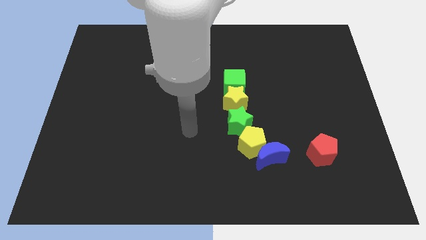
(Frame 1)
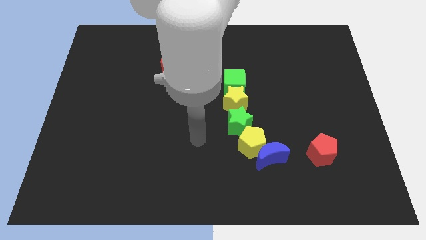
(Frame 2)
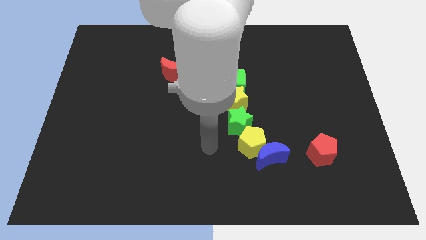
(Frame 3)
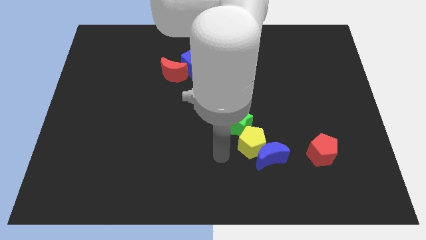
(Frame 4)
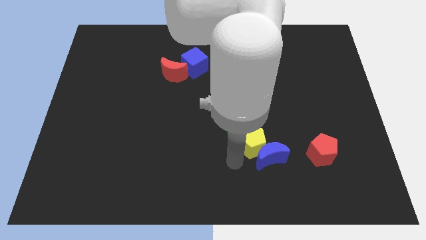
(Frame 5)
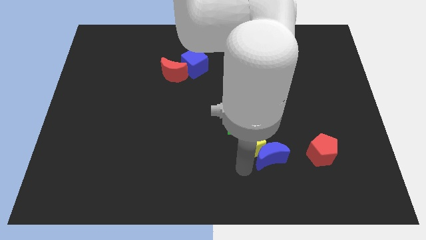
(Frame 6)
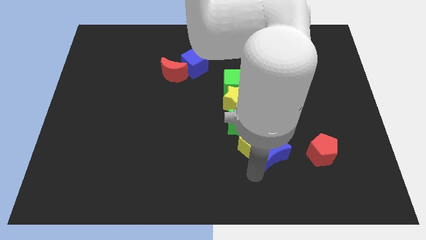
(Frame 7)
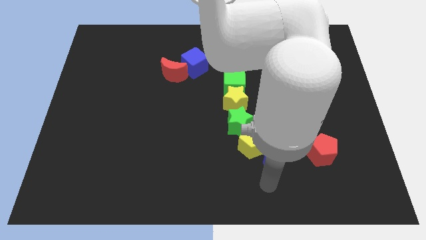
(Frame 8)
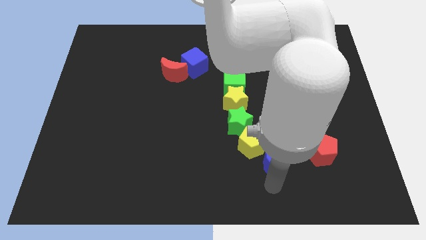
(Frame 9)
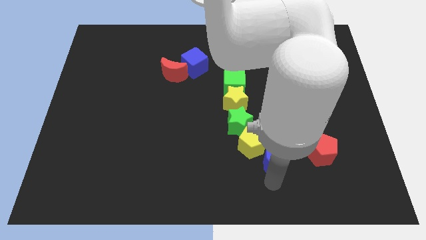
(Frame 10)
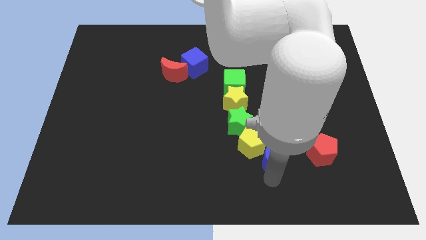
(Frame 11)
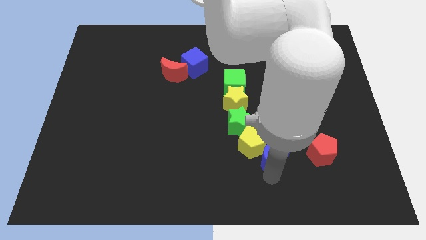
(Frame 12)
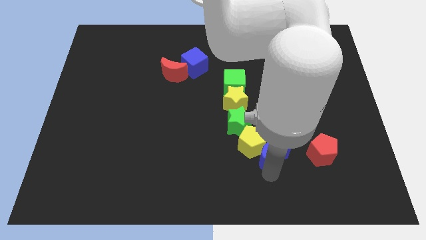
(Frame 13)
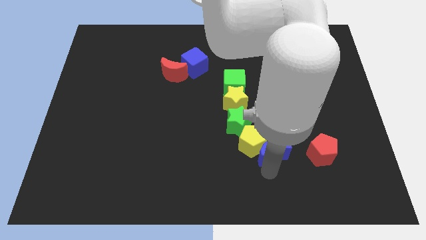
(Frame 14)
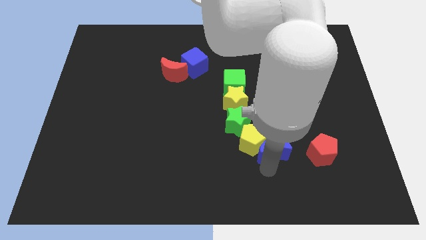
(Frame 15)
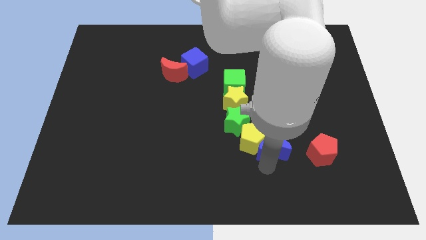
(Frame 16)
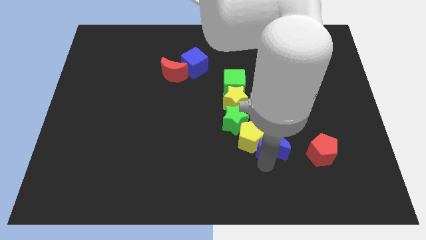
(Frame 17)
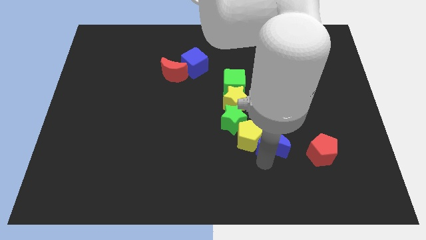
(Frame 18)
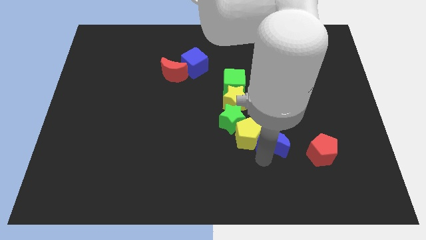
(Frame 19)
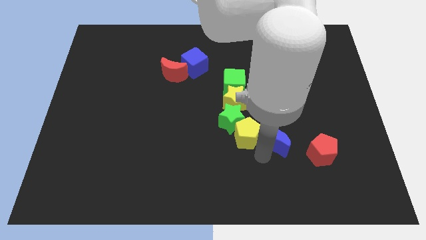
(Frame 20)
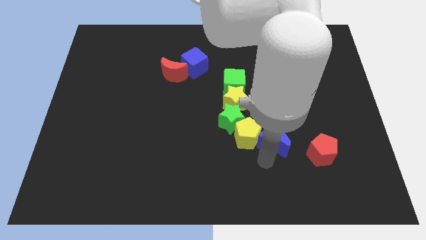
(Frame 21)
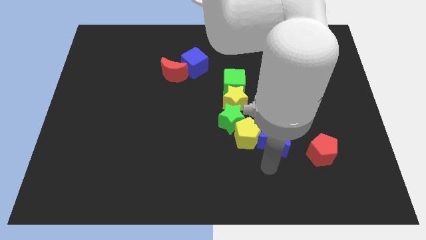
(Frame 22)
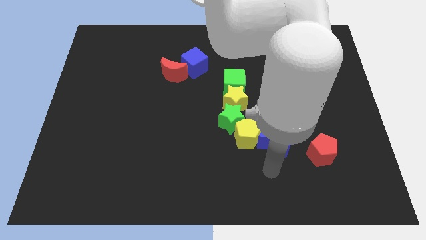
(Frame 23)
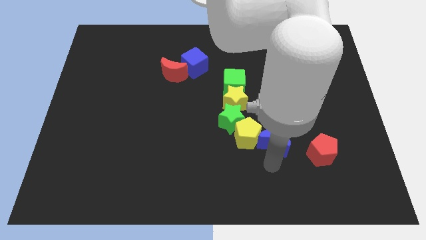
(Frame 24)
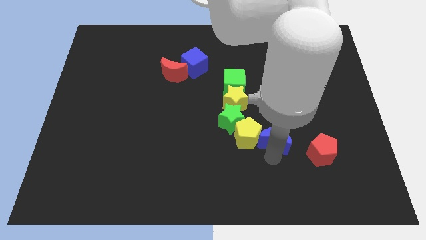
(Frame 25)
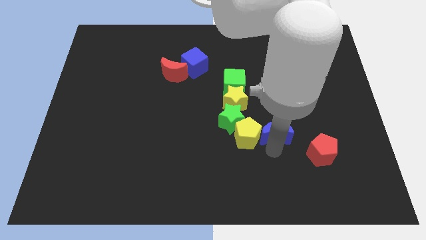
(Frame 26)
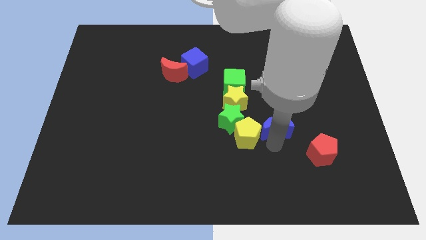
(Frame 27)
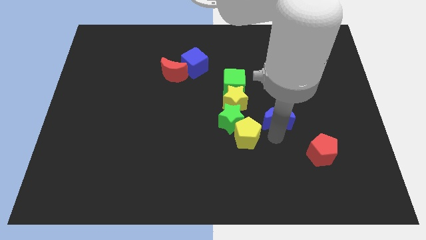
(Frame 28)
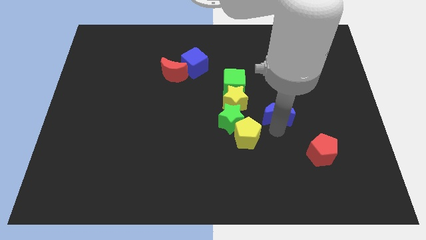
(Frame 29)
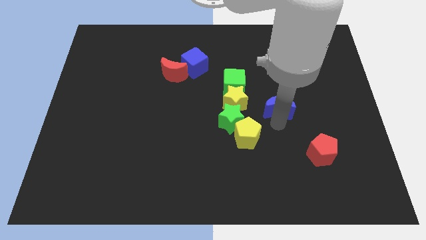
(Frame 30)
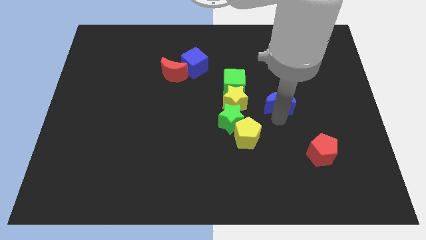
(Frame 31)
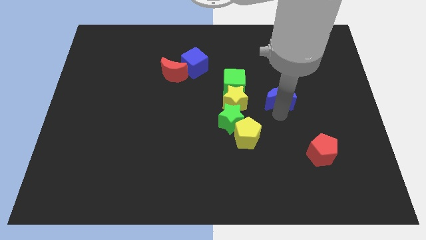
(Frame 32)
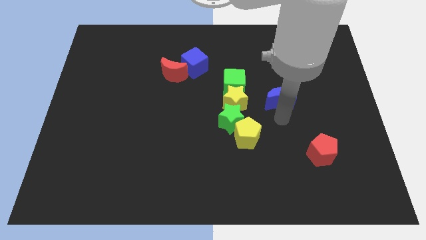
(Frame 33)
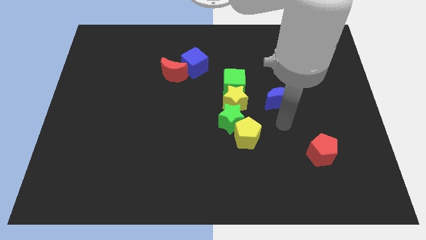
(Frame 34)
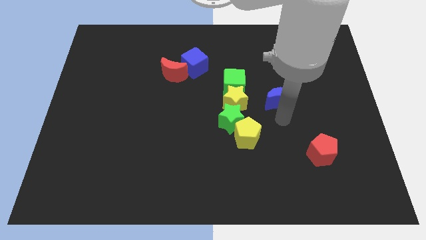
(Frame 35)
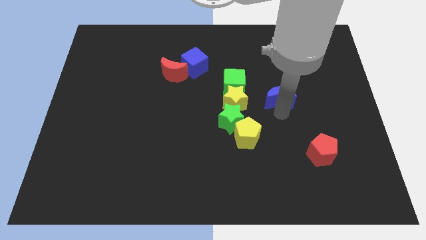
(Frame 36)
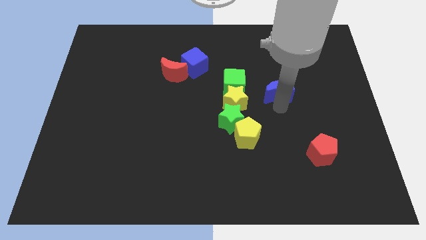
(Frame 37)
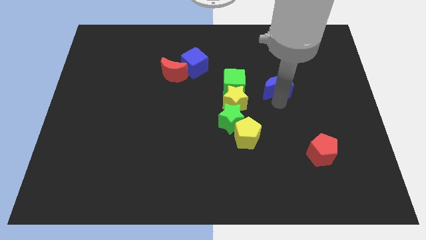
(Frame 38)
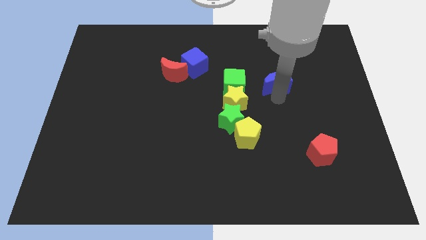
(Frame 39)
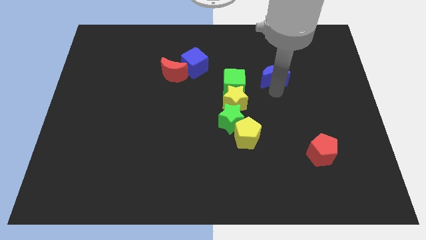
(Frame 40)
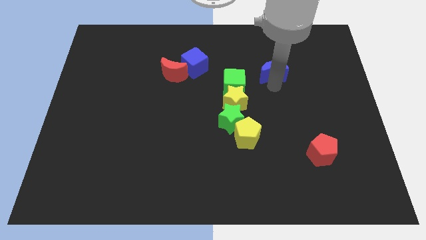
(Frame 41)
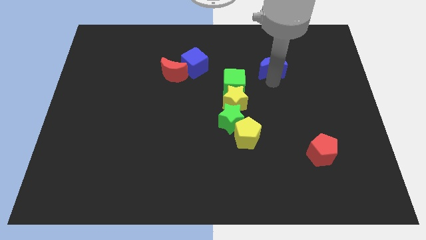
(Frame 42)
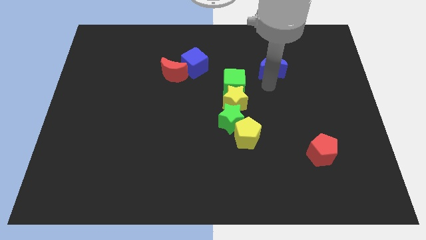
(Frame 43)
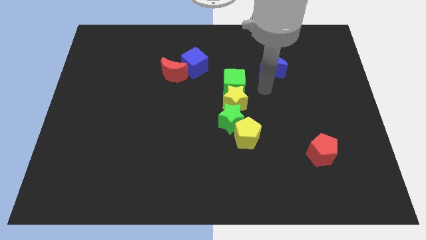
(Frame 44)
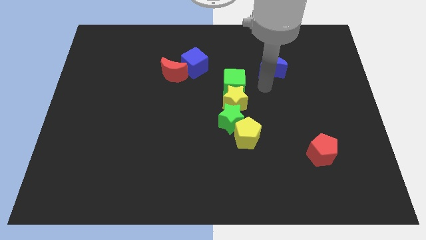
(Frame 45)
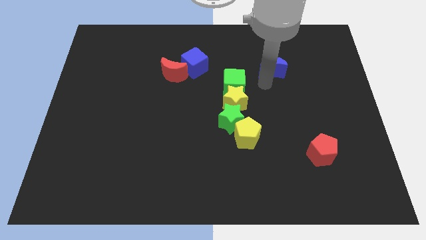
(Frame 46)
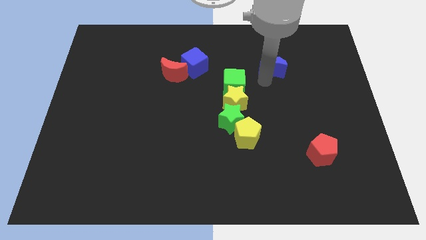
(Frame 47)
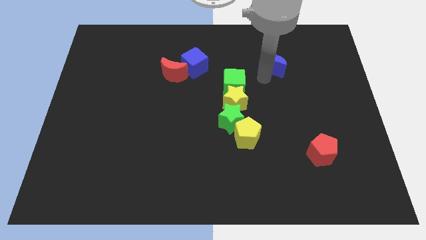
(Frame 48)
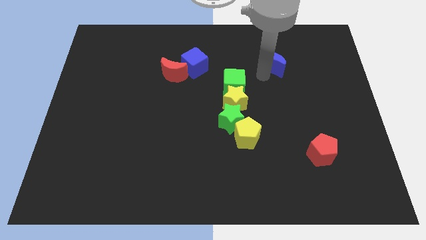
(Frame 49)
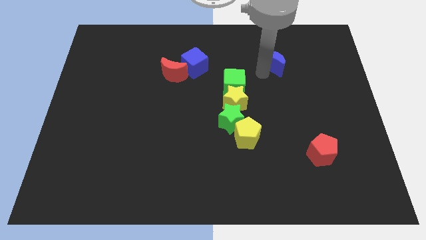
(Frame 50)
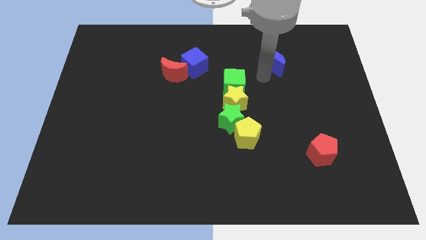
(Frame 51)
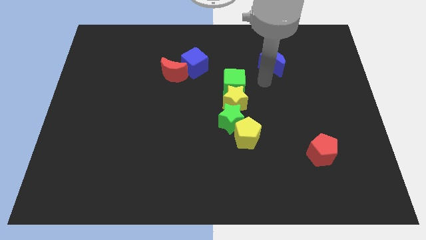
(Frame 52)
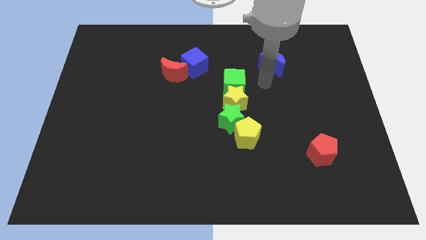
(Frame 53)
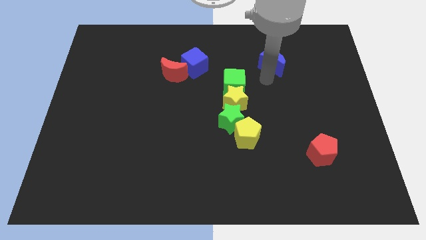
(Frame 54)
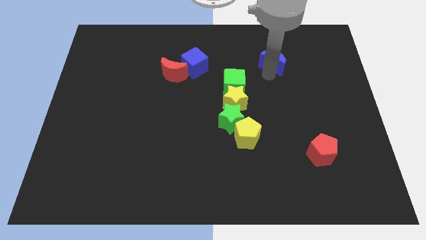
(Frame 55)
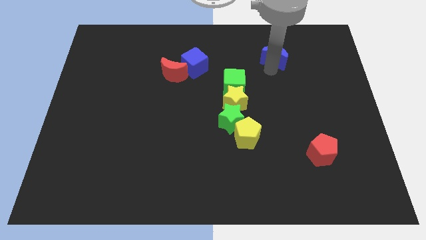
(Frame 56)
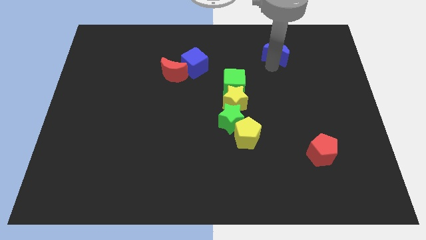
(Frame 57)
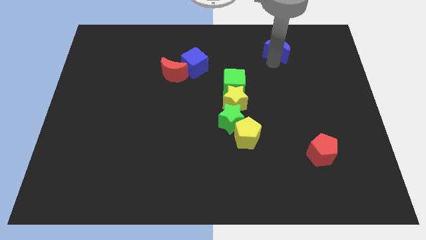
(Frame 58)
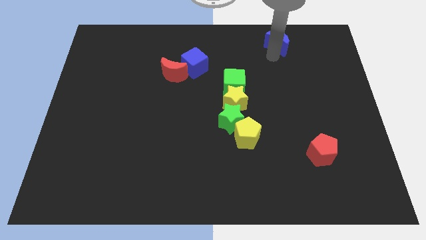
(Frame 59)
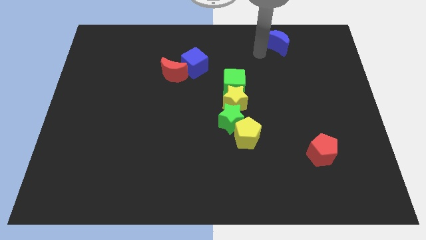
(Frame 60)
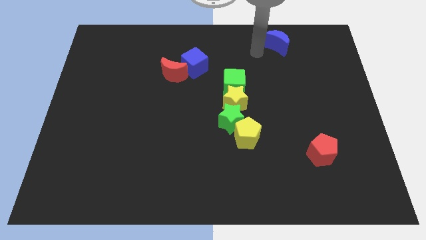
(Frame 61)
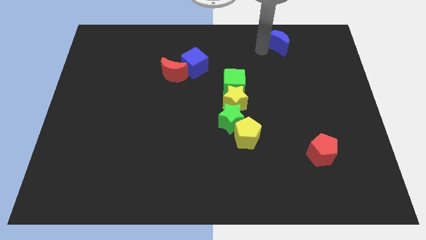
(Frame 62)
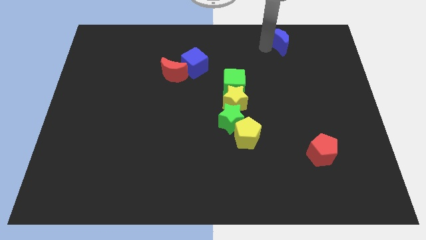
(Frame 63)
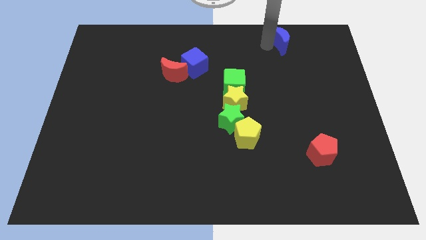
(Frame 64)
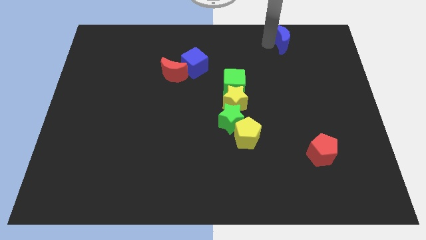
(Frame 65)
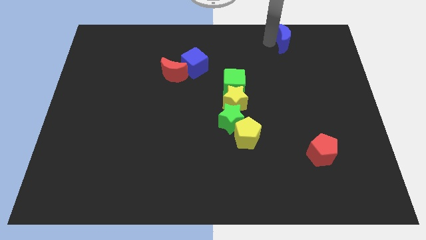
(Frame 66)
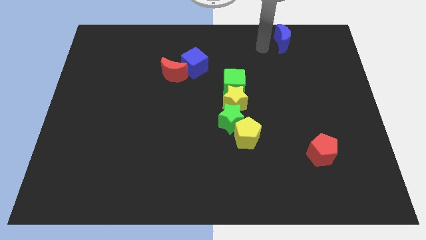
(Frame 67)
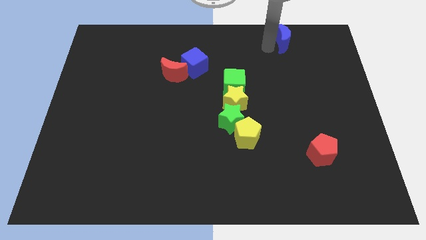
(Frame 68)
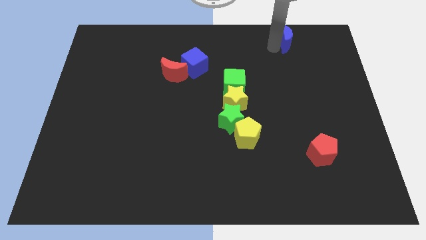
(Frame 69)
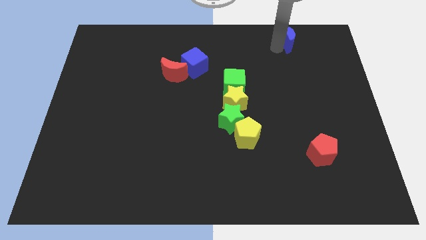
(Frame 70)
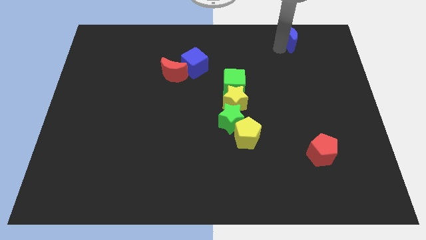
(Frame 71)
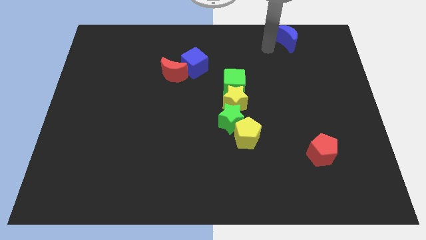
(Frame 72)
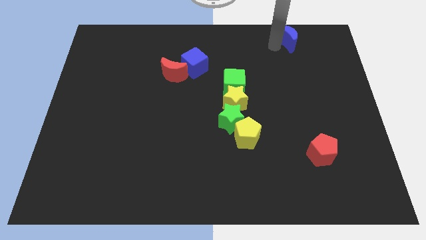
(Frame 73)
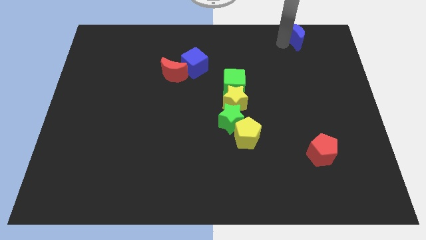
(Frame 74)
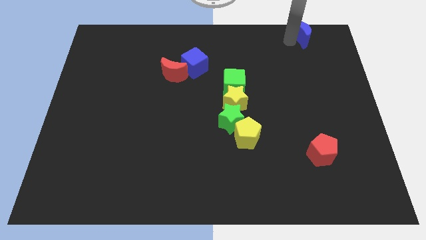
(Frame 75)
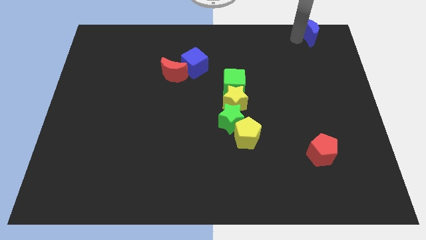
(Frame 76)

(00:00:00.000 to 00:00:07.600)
put the blue moon to the top right of the board

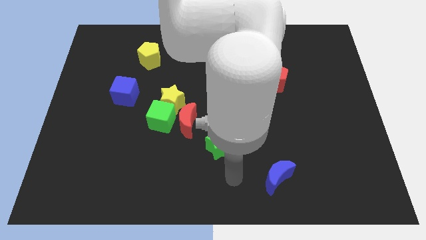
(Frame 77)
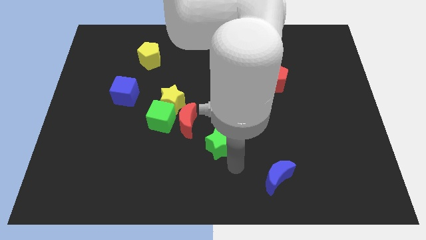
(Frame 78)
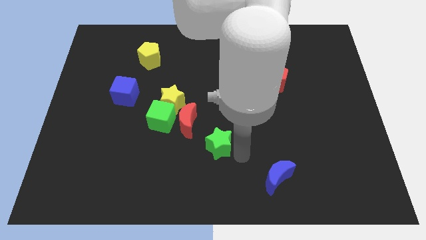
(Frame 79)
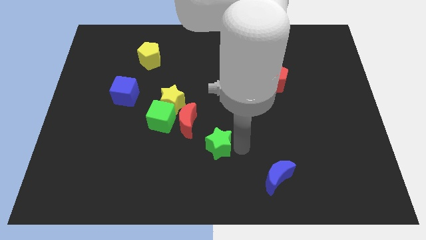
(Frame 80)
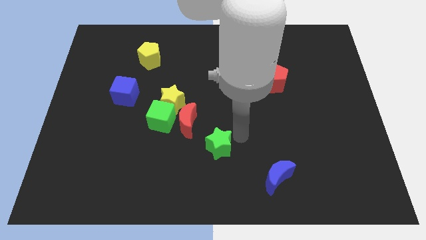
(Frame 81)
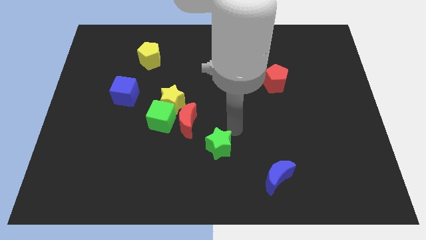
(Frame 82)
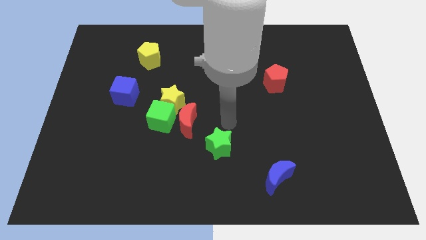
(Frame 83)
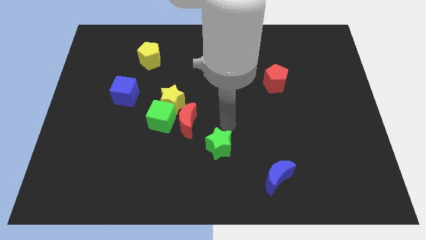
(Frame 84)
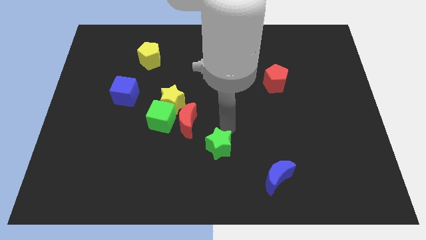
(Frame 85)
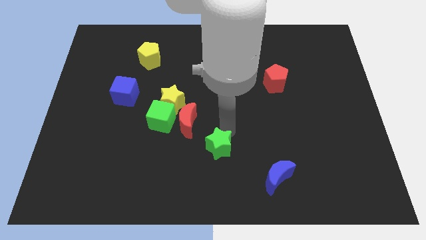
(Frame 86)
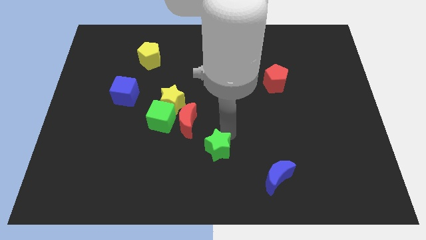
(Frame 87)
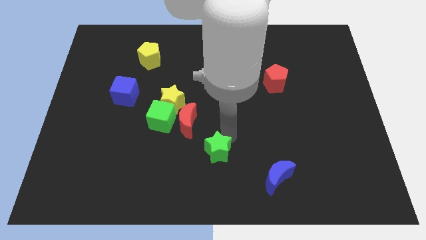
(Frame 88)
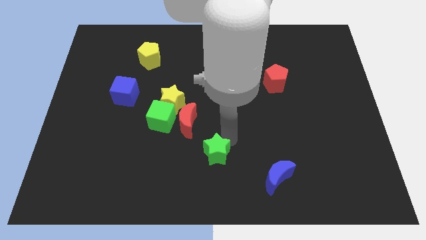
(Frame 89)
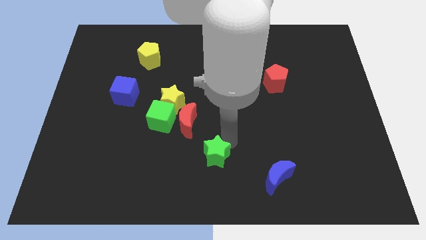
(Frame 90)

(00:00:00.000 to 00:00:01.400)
slide the green star to the bottom
